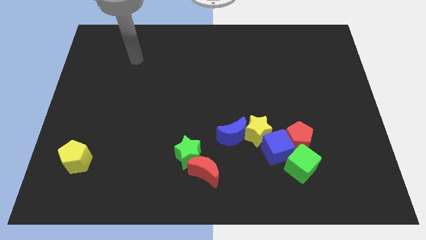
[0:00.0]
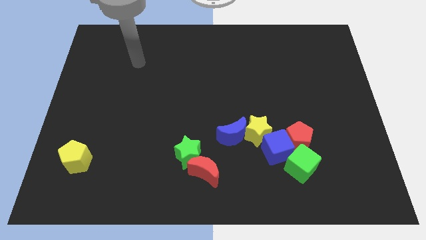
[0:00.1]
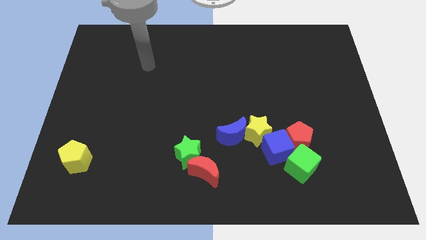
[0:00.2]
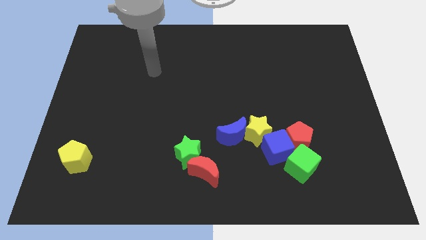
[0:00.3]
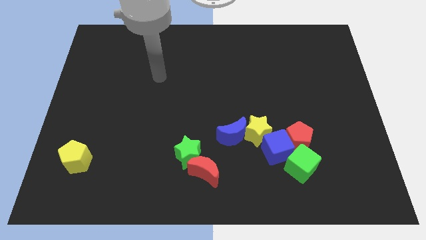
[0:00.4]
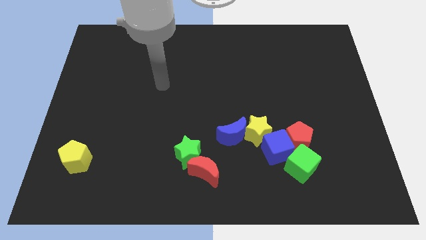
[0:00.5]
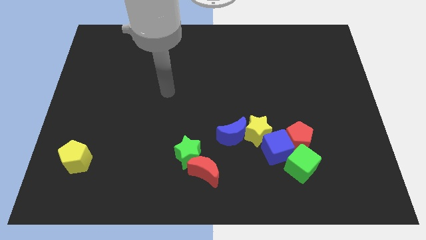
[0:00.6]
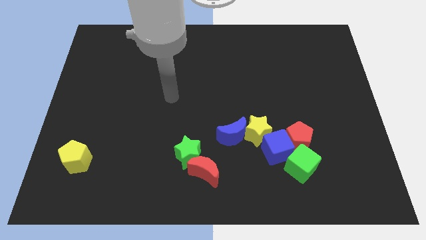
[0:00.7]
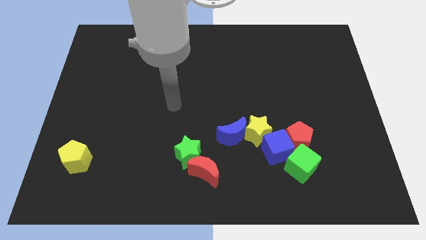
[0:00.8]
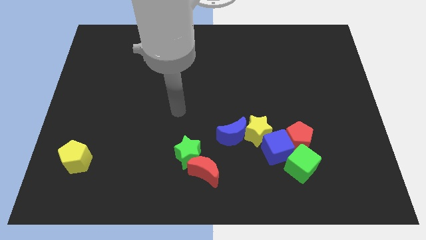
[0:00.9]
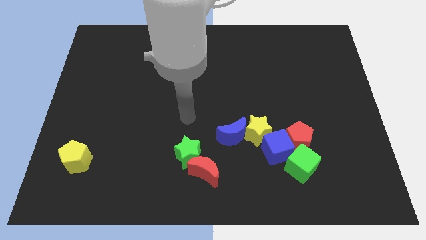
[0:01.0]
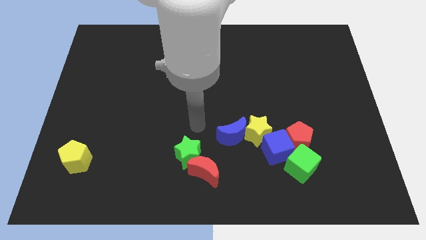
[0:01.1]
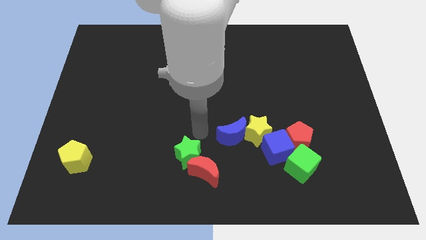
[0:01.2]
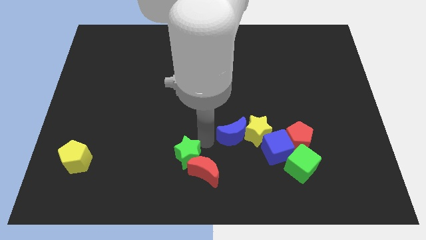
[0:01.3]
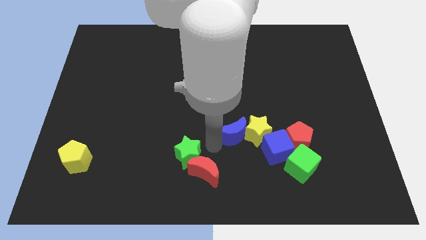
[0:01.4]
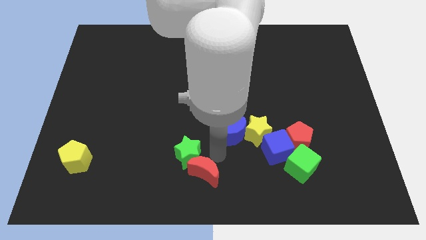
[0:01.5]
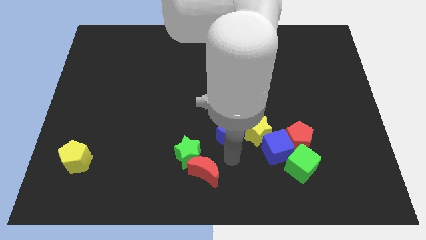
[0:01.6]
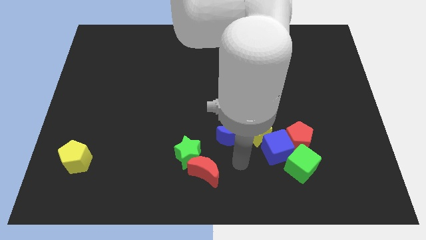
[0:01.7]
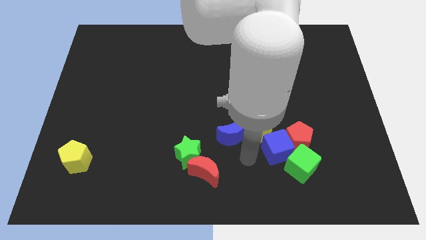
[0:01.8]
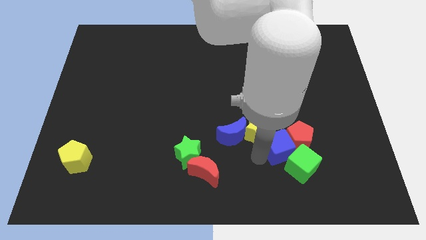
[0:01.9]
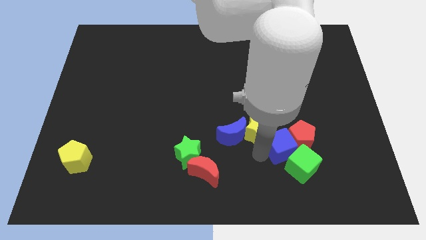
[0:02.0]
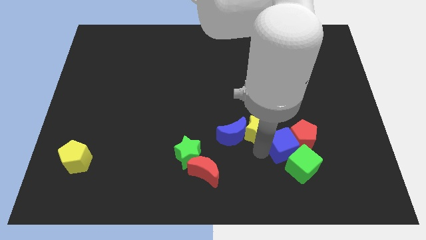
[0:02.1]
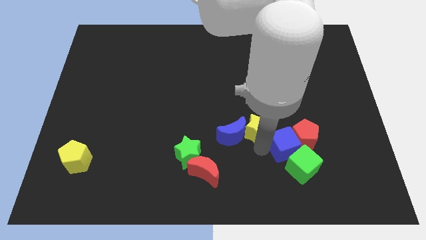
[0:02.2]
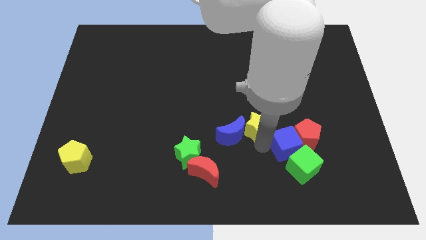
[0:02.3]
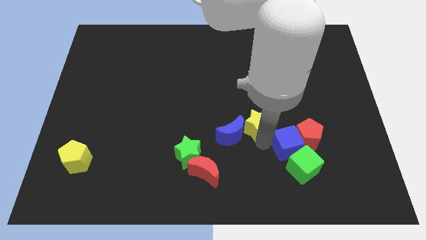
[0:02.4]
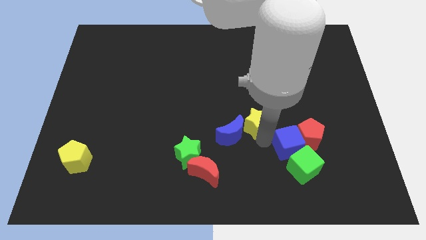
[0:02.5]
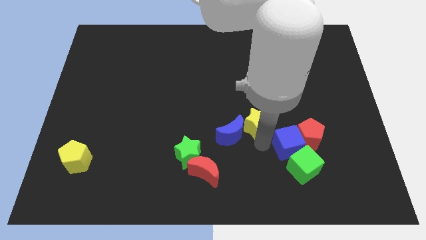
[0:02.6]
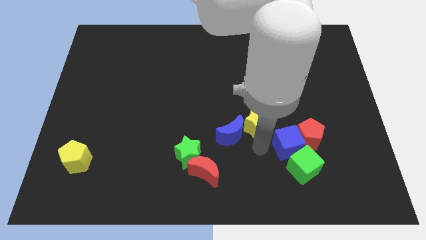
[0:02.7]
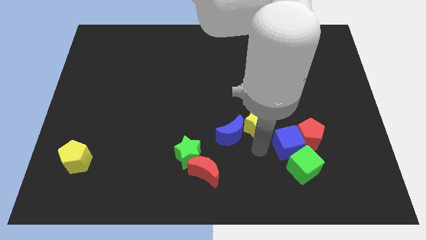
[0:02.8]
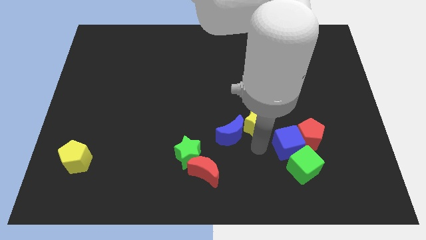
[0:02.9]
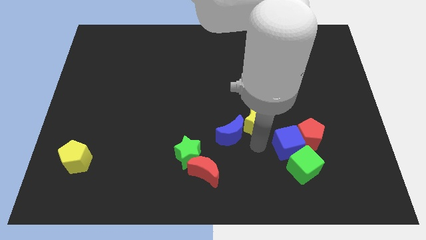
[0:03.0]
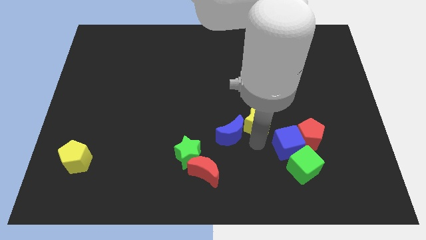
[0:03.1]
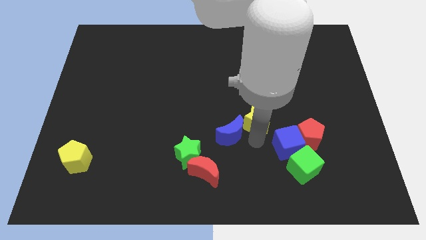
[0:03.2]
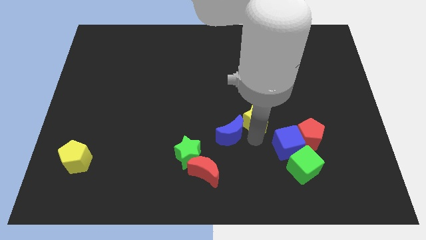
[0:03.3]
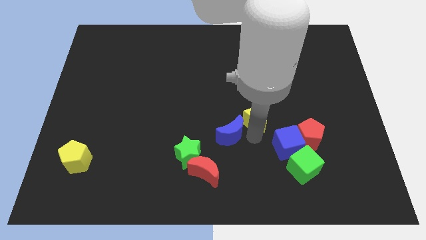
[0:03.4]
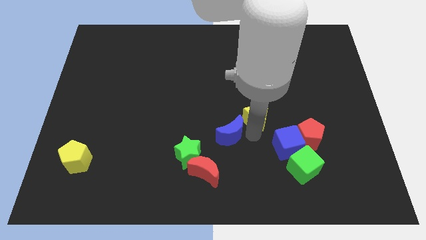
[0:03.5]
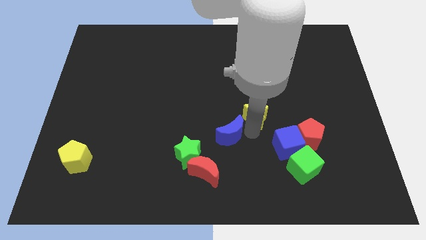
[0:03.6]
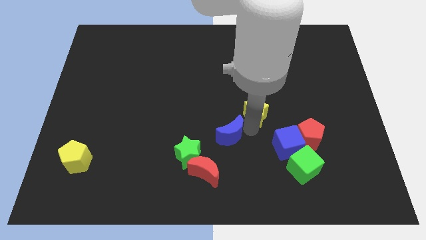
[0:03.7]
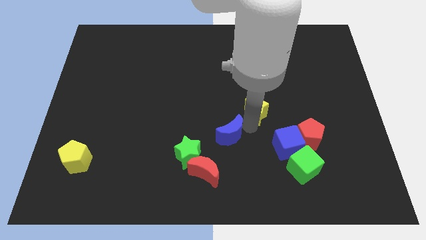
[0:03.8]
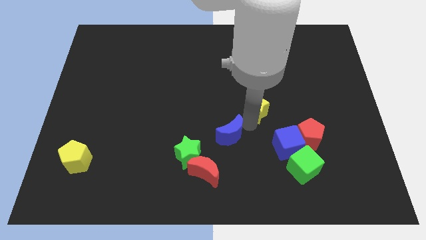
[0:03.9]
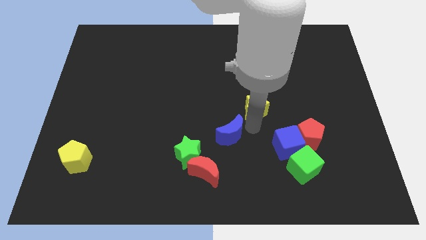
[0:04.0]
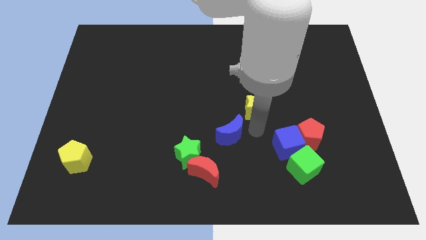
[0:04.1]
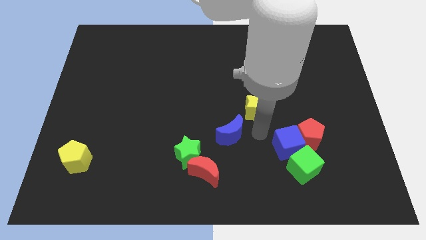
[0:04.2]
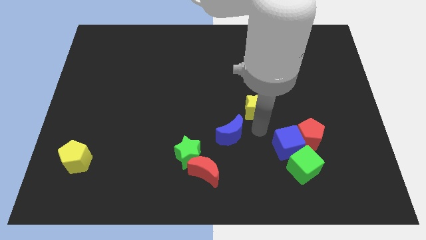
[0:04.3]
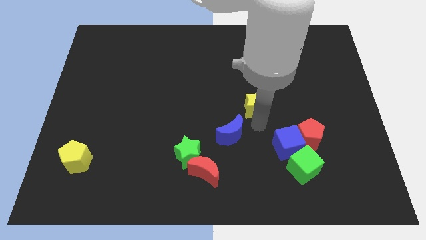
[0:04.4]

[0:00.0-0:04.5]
move the yellow star up slightly

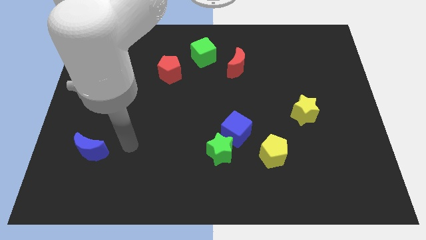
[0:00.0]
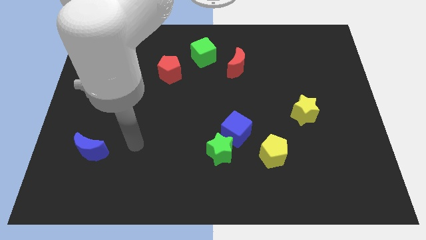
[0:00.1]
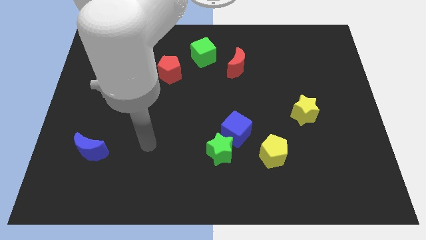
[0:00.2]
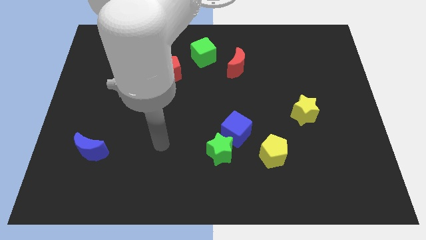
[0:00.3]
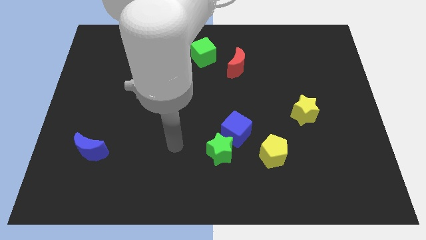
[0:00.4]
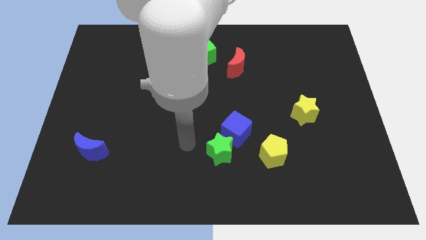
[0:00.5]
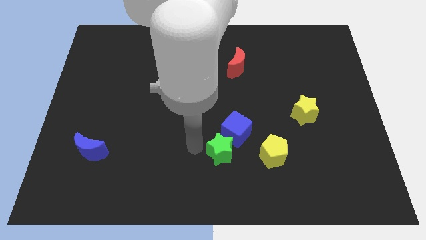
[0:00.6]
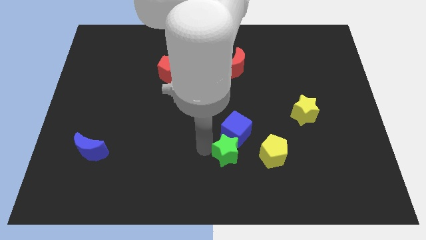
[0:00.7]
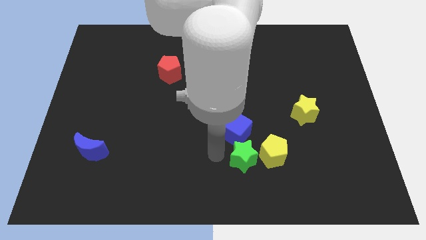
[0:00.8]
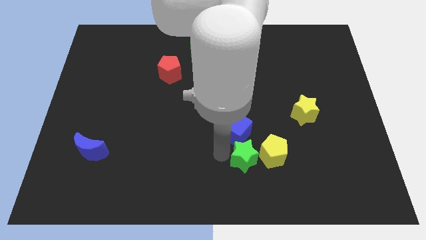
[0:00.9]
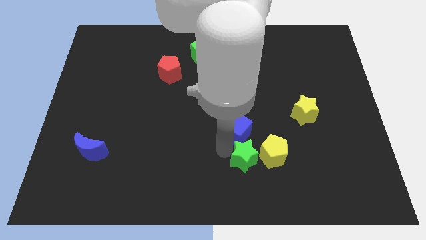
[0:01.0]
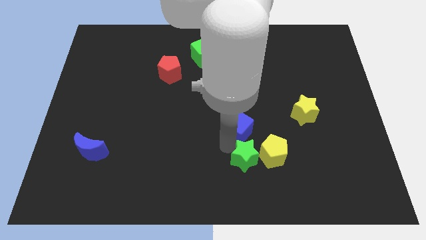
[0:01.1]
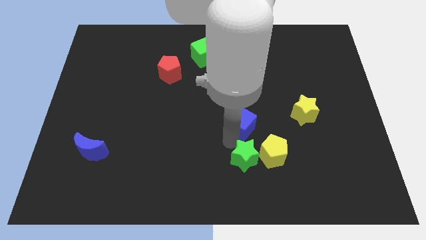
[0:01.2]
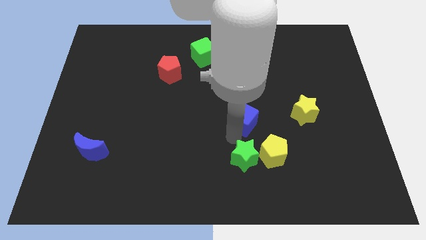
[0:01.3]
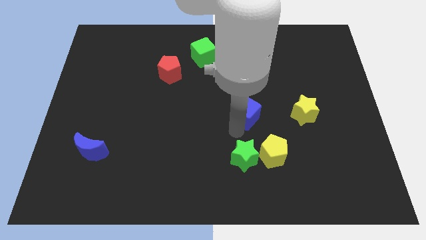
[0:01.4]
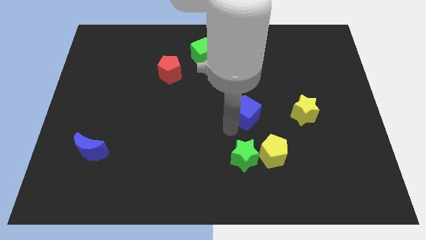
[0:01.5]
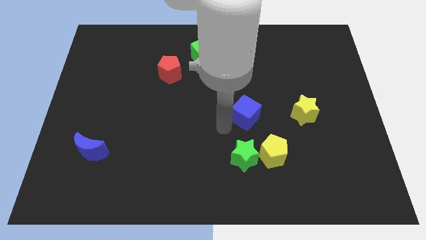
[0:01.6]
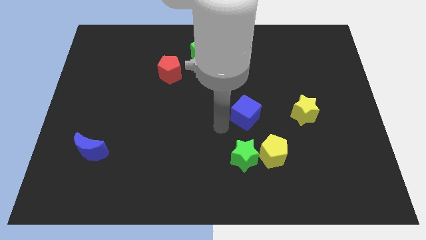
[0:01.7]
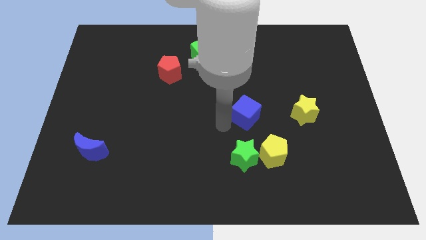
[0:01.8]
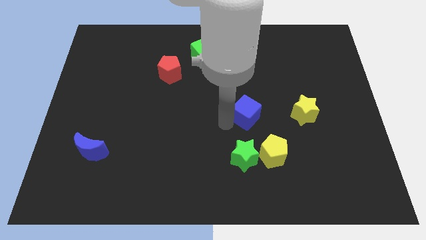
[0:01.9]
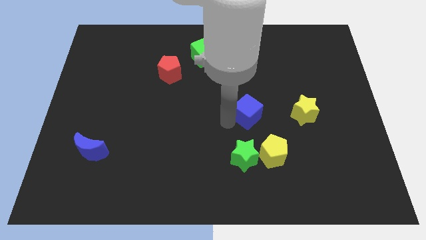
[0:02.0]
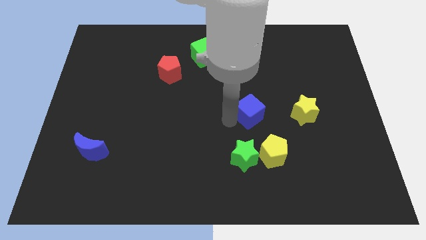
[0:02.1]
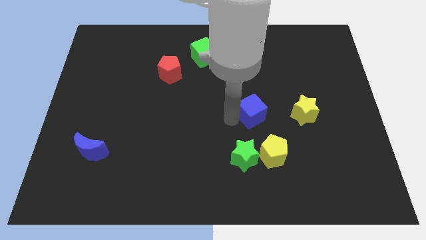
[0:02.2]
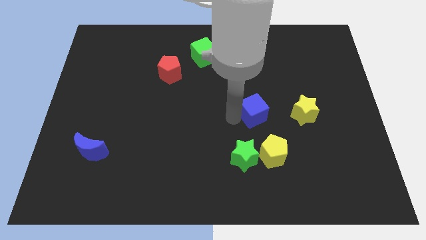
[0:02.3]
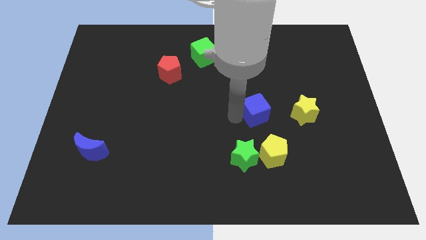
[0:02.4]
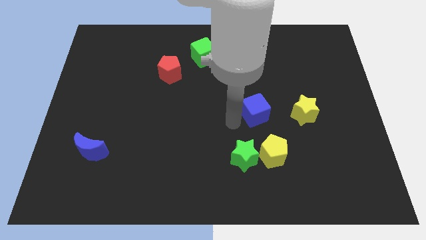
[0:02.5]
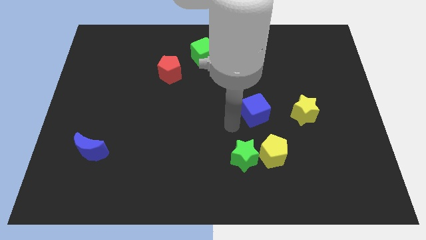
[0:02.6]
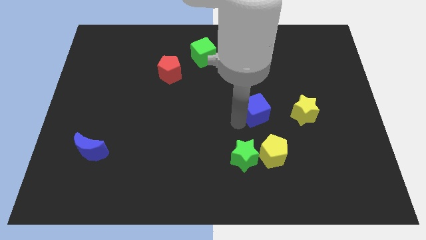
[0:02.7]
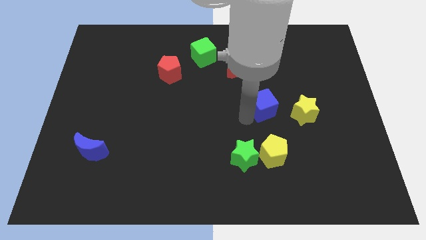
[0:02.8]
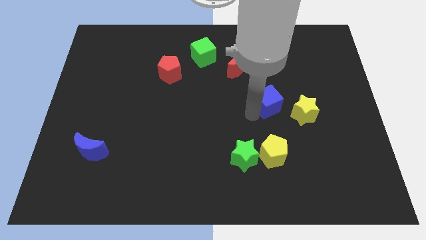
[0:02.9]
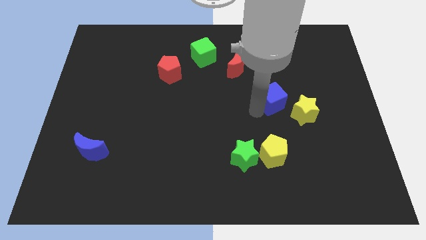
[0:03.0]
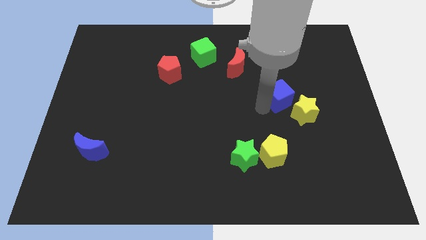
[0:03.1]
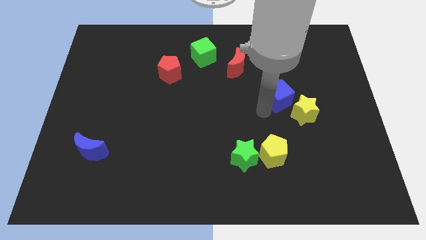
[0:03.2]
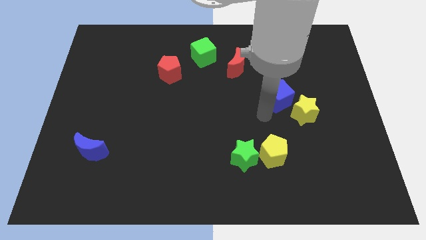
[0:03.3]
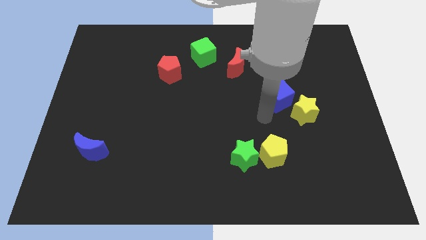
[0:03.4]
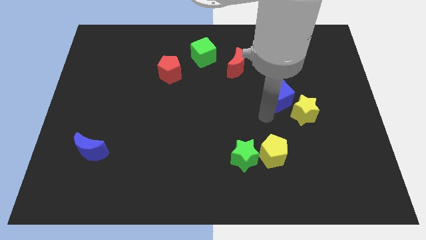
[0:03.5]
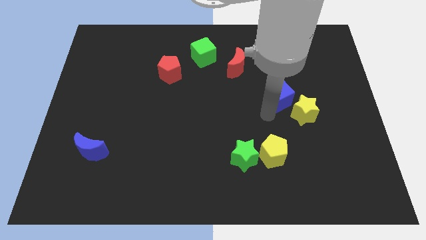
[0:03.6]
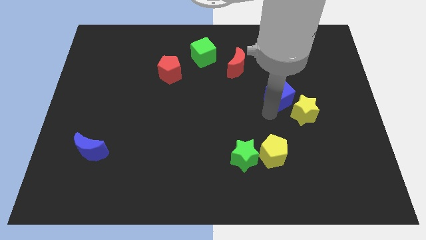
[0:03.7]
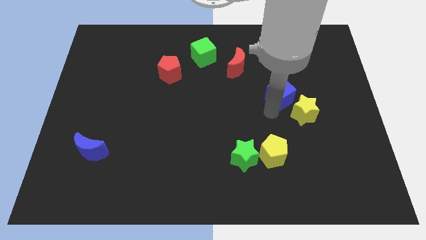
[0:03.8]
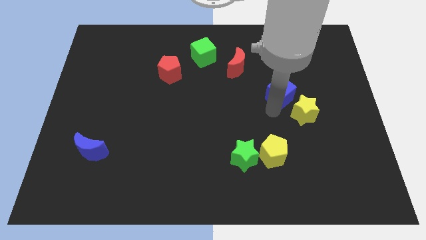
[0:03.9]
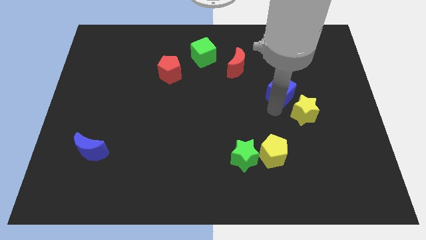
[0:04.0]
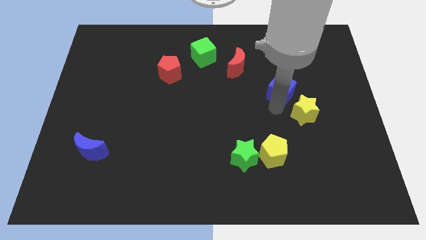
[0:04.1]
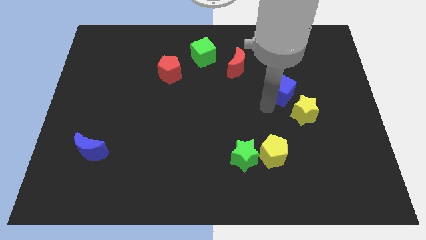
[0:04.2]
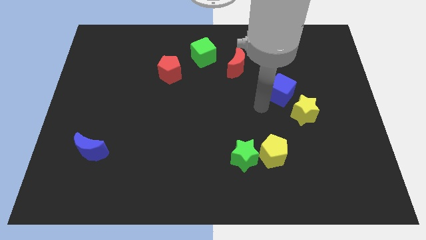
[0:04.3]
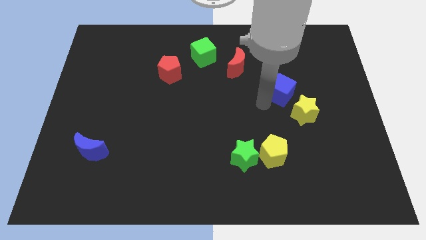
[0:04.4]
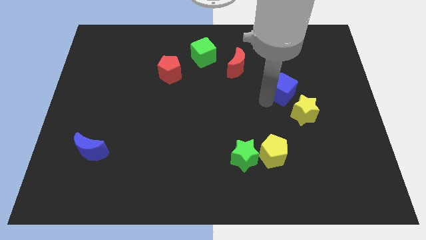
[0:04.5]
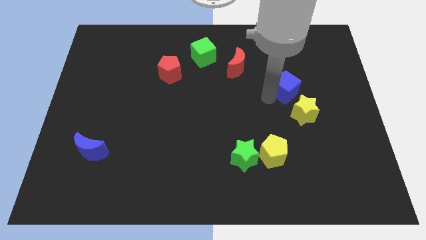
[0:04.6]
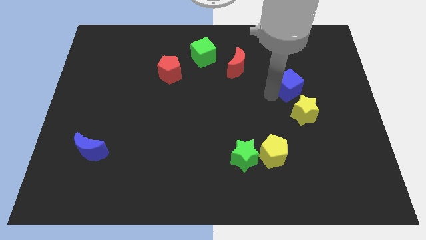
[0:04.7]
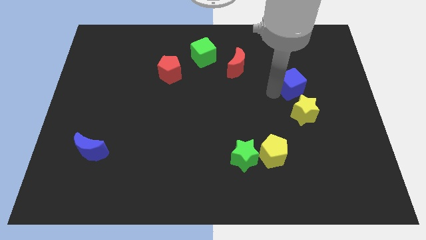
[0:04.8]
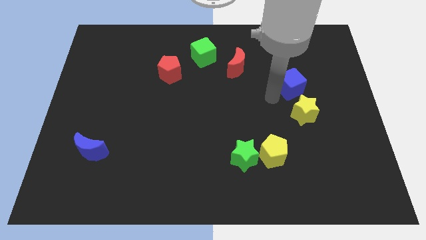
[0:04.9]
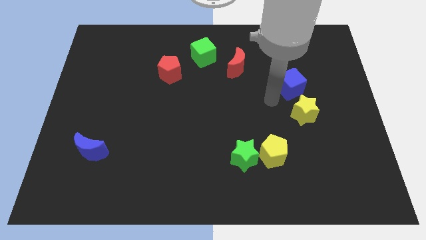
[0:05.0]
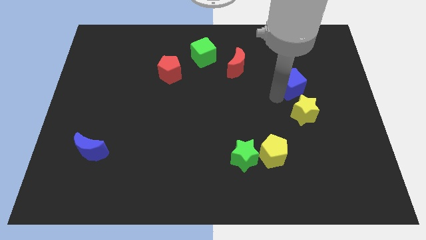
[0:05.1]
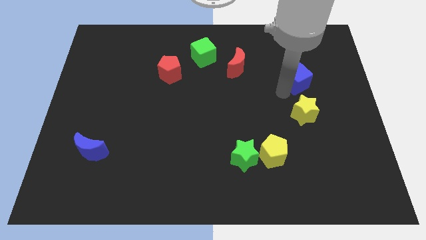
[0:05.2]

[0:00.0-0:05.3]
push the blue cube up and to the right diagonally
